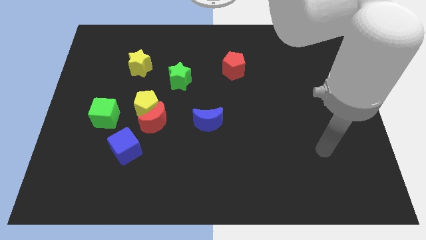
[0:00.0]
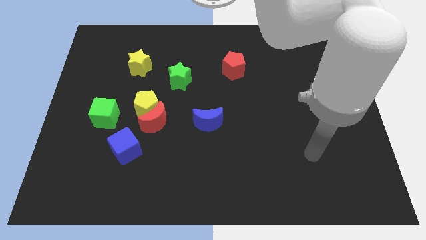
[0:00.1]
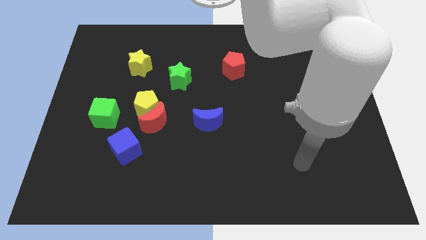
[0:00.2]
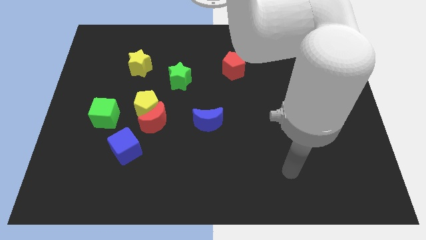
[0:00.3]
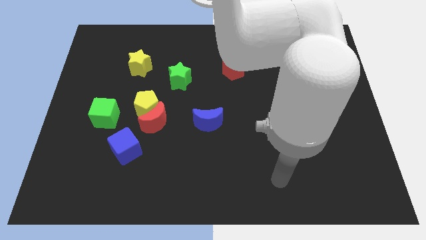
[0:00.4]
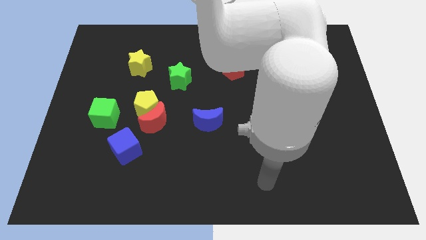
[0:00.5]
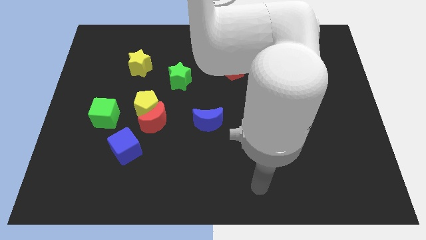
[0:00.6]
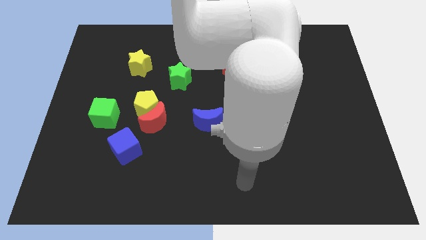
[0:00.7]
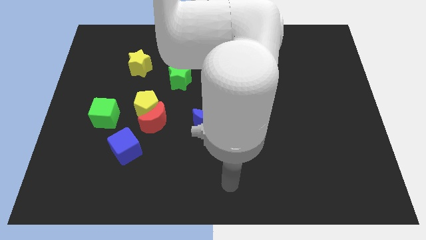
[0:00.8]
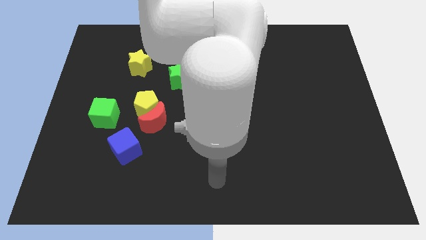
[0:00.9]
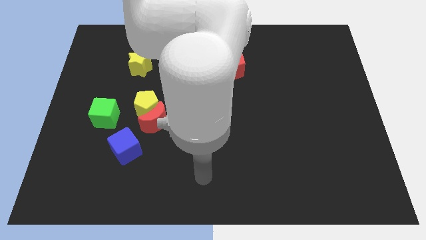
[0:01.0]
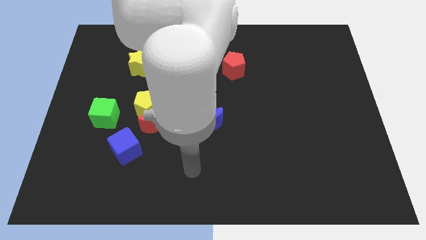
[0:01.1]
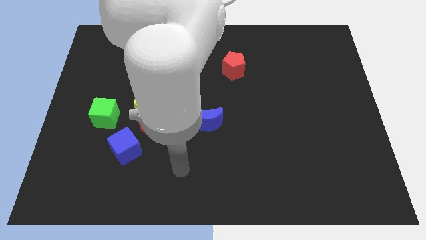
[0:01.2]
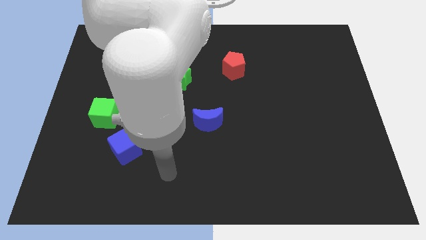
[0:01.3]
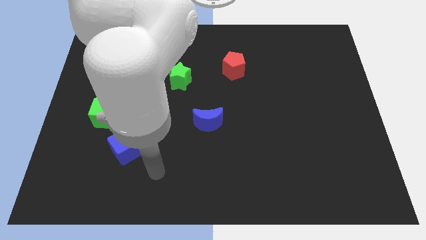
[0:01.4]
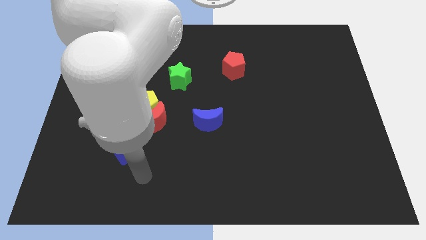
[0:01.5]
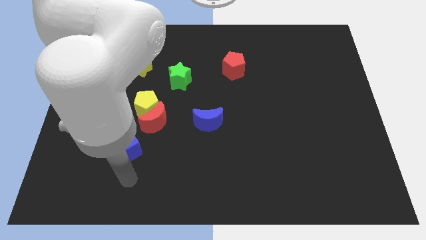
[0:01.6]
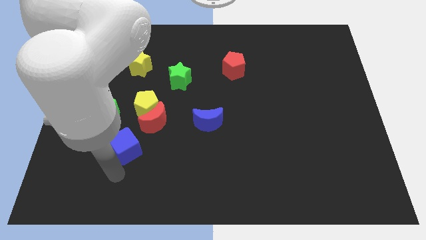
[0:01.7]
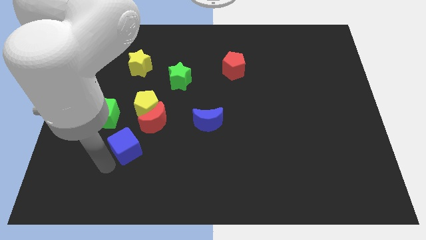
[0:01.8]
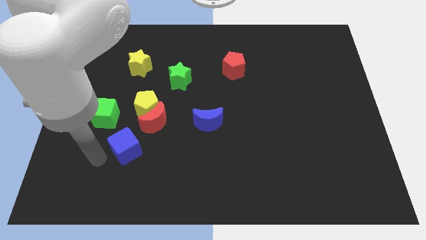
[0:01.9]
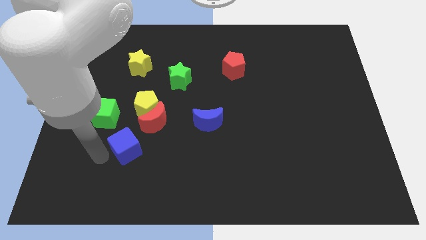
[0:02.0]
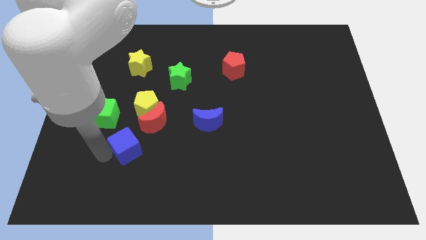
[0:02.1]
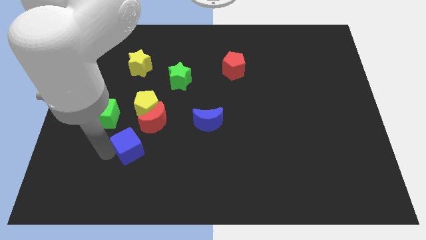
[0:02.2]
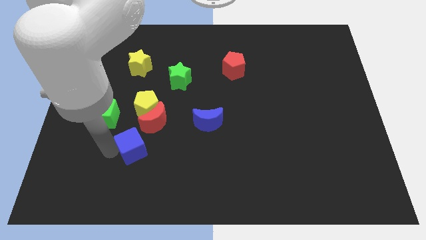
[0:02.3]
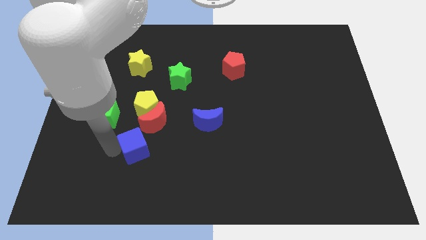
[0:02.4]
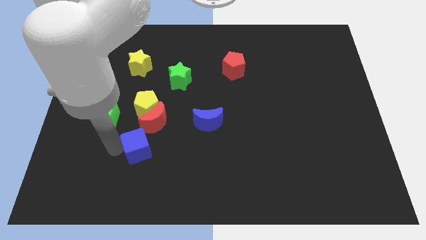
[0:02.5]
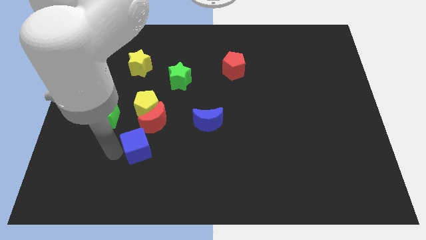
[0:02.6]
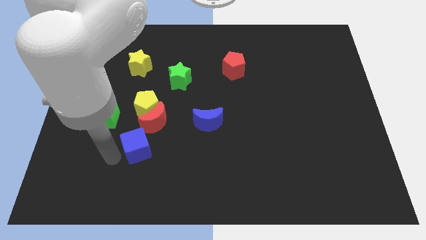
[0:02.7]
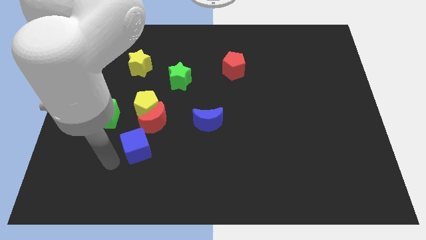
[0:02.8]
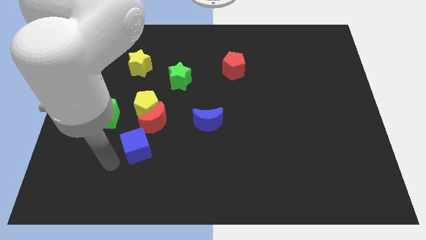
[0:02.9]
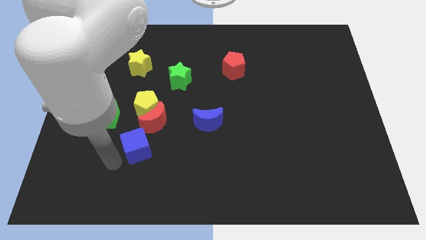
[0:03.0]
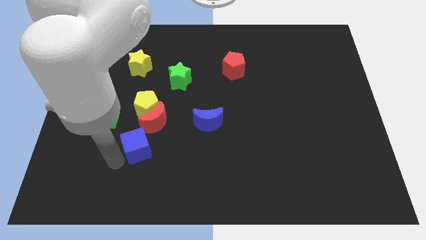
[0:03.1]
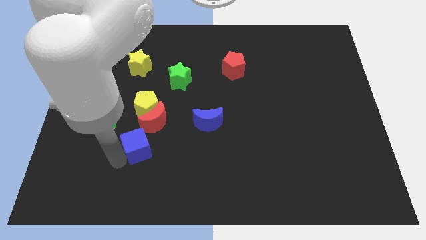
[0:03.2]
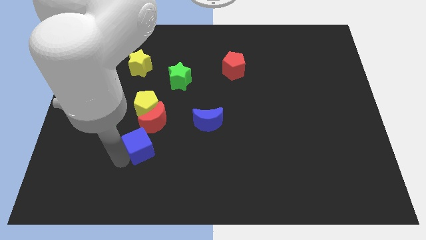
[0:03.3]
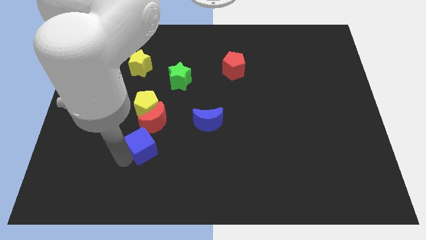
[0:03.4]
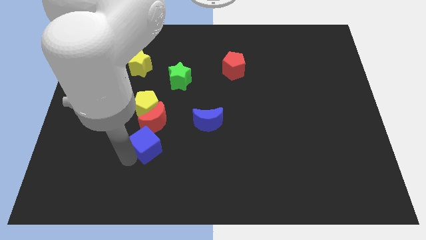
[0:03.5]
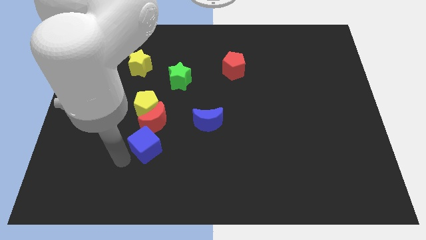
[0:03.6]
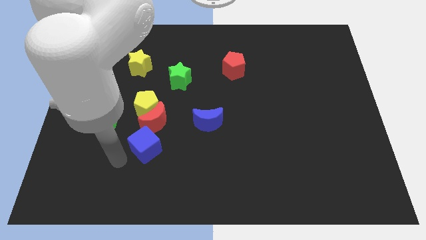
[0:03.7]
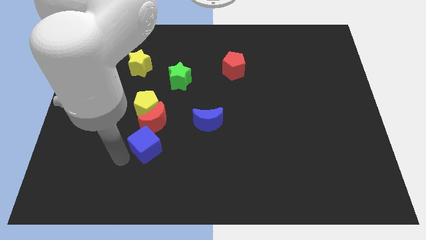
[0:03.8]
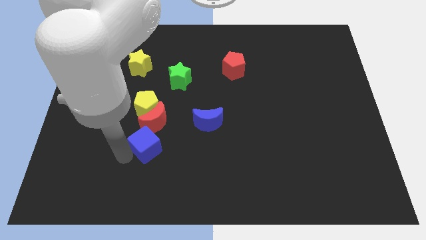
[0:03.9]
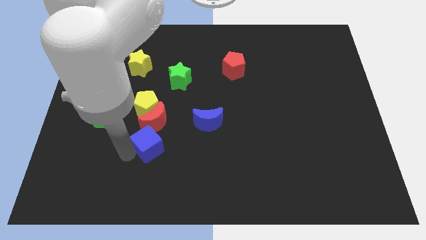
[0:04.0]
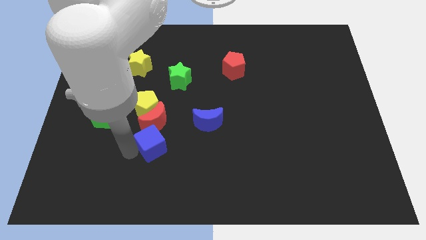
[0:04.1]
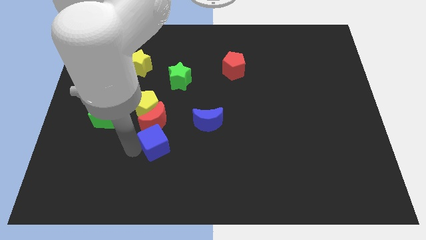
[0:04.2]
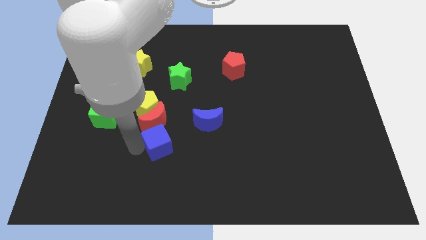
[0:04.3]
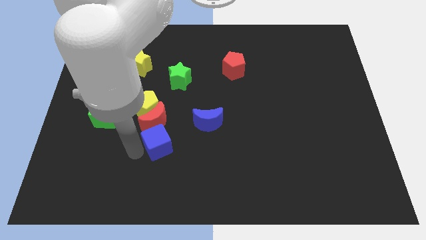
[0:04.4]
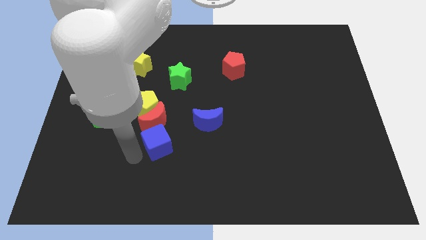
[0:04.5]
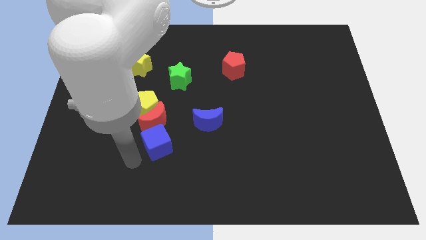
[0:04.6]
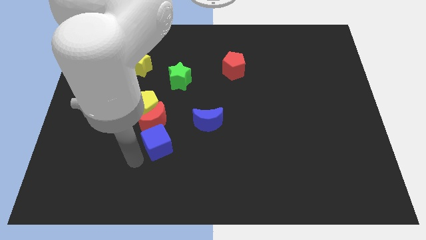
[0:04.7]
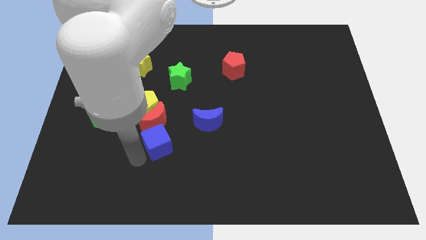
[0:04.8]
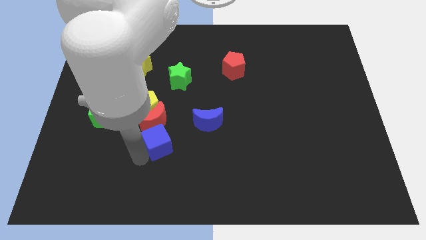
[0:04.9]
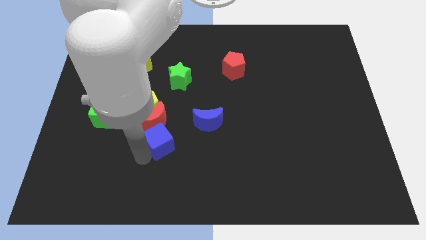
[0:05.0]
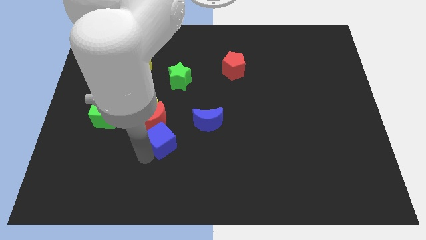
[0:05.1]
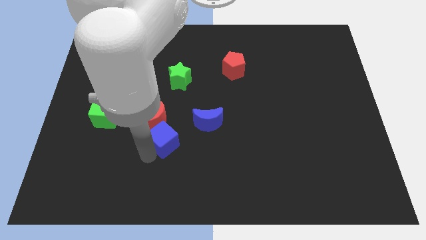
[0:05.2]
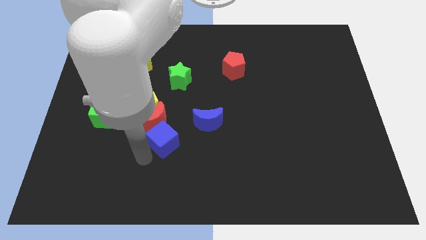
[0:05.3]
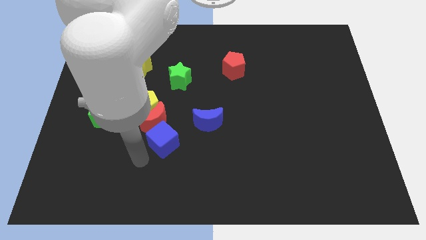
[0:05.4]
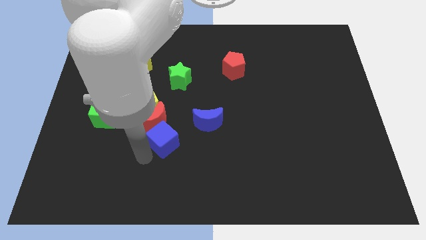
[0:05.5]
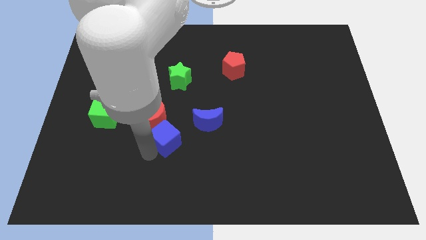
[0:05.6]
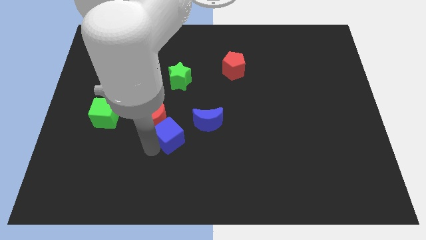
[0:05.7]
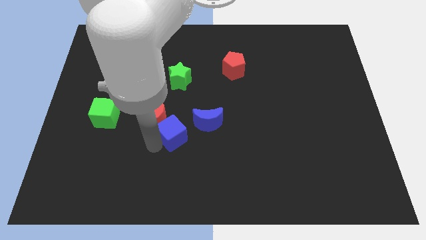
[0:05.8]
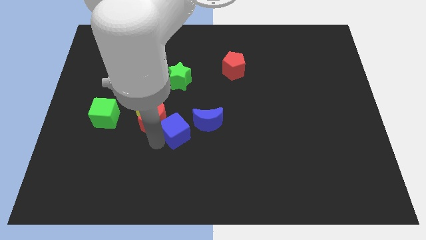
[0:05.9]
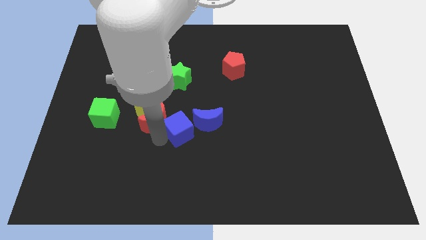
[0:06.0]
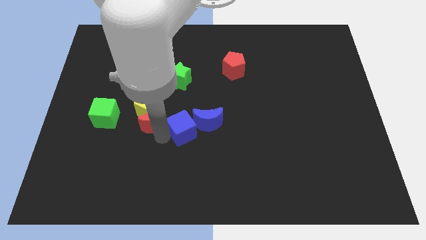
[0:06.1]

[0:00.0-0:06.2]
put the blue cube to the blue moon
